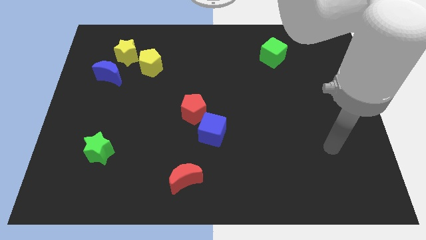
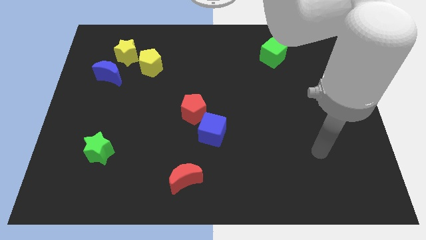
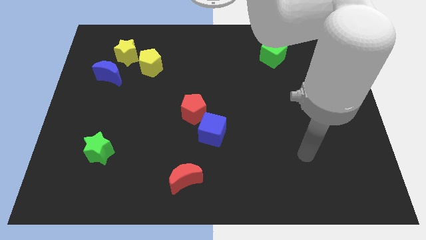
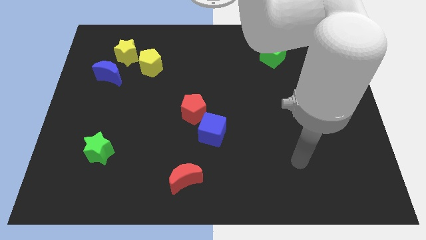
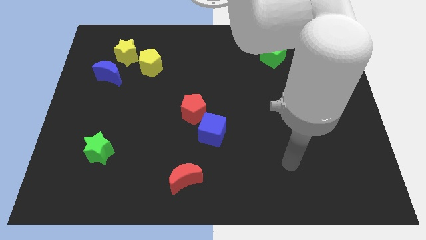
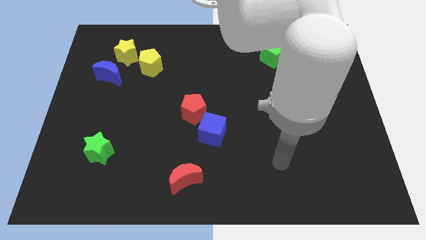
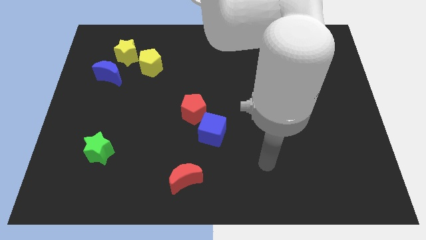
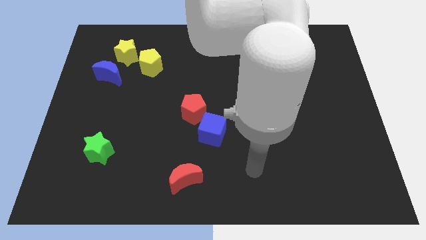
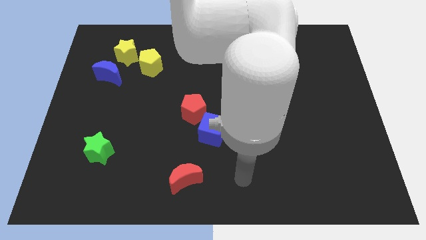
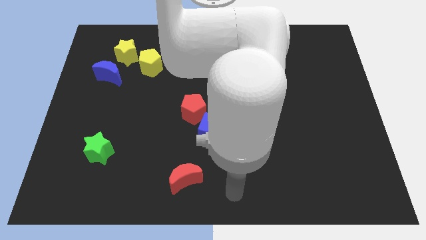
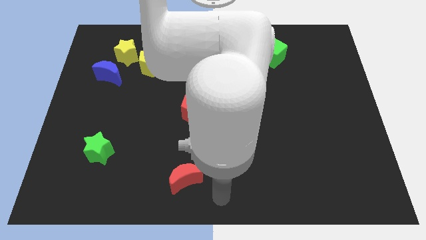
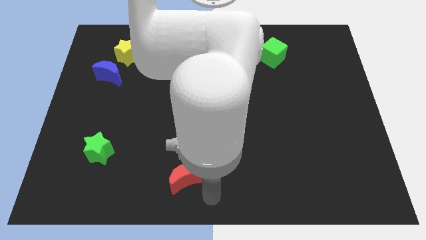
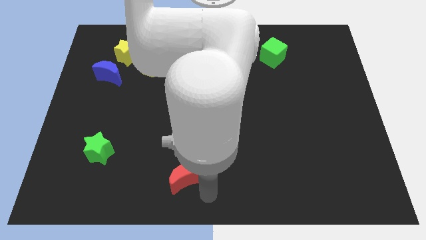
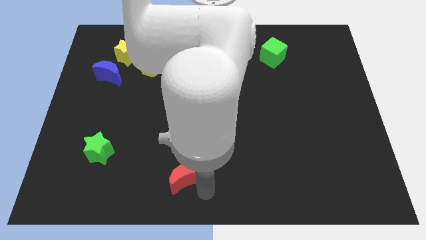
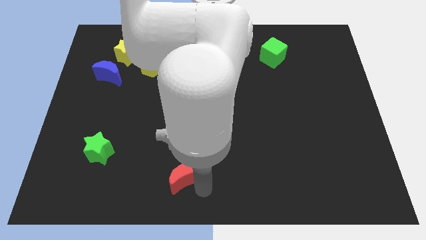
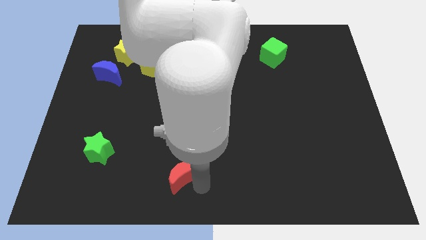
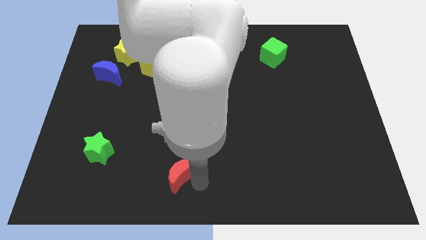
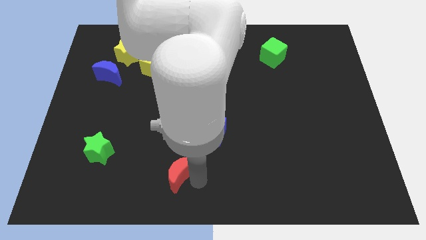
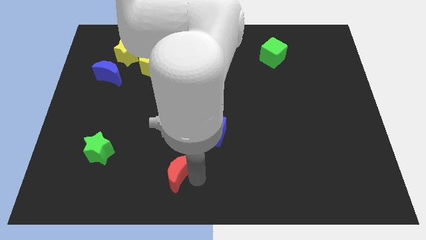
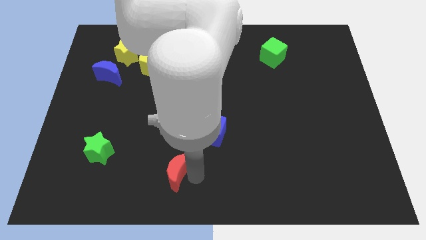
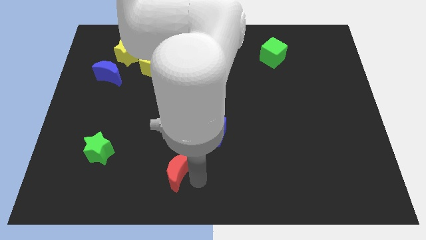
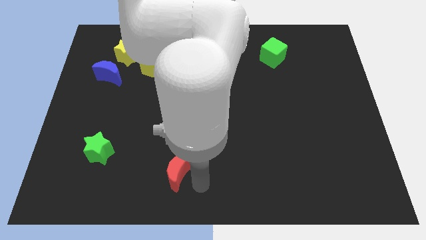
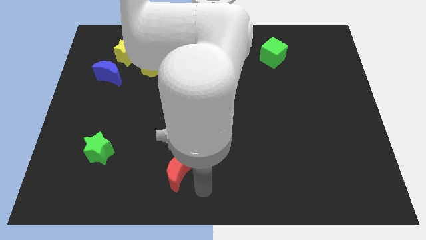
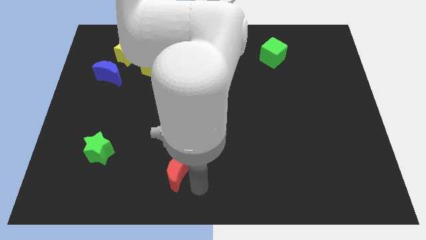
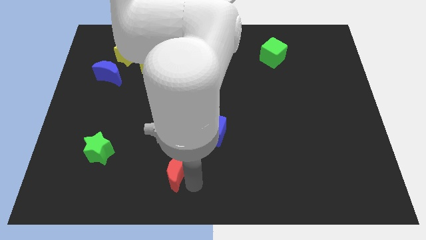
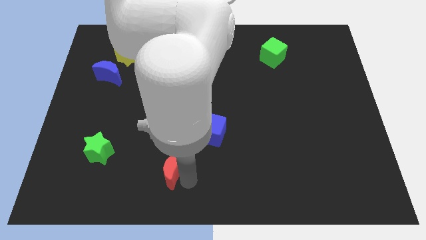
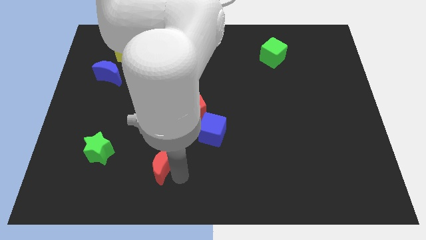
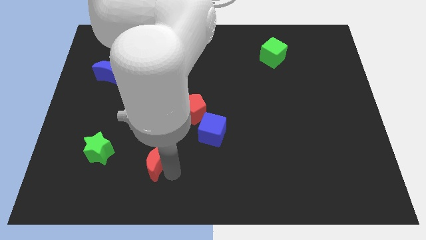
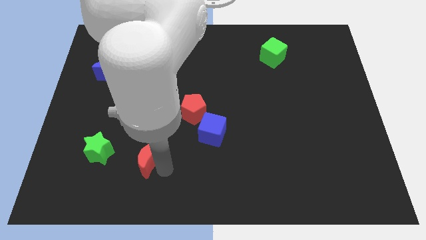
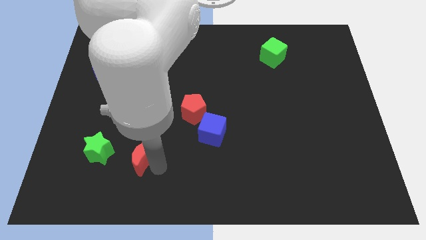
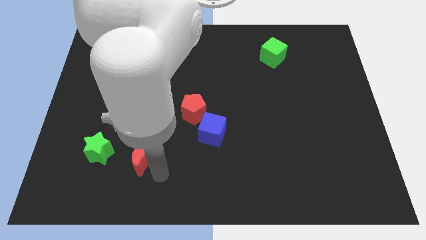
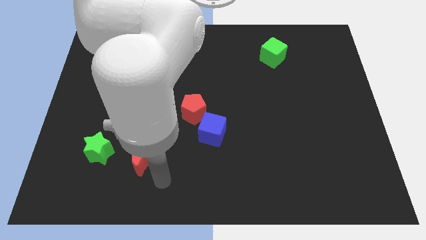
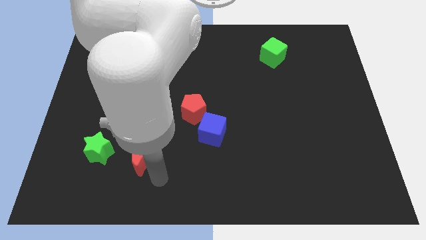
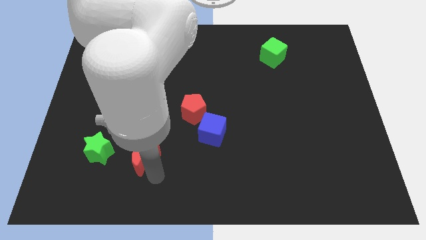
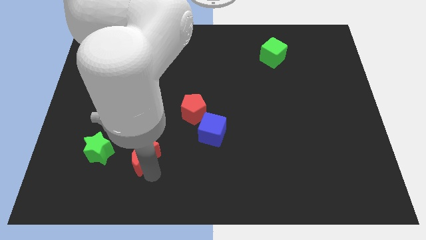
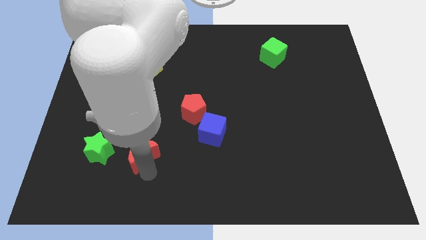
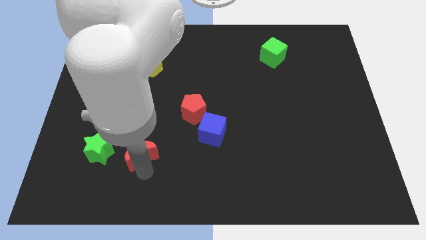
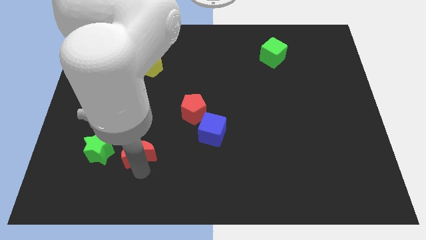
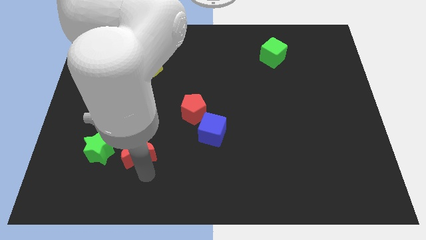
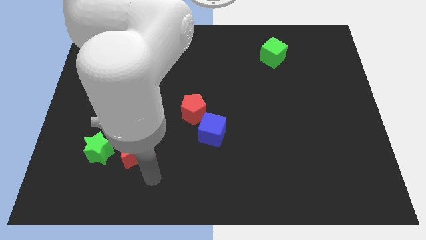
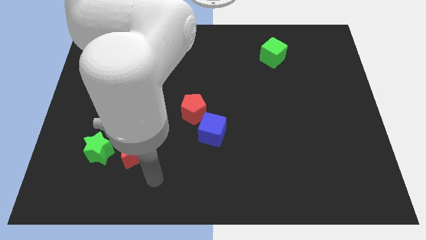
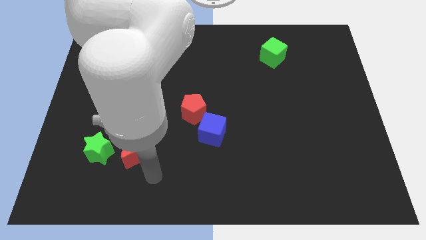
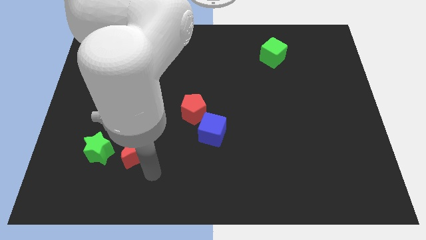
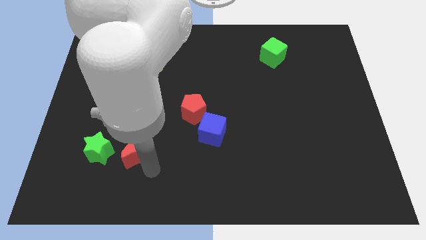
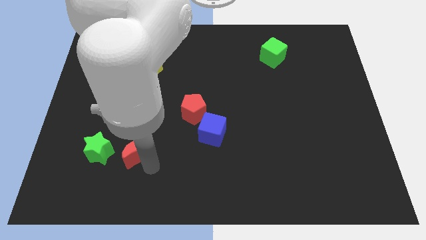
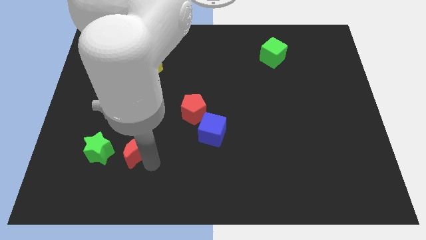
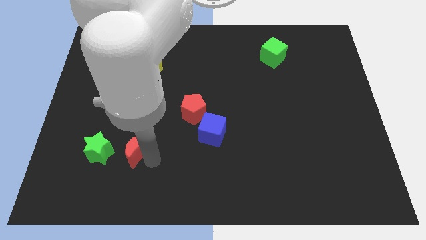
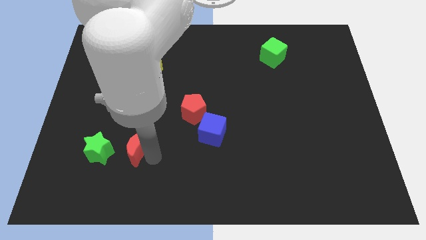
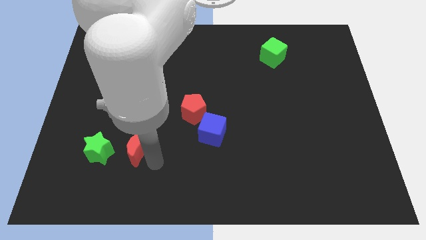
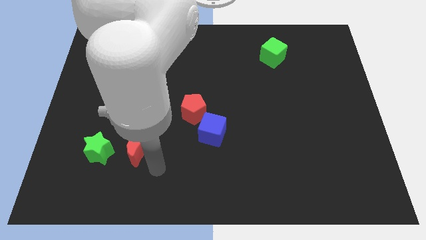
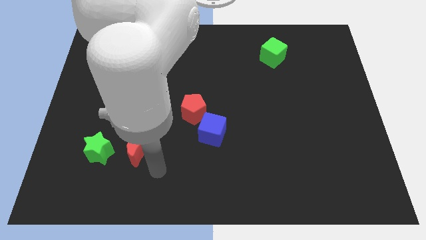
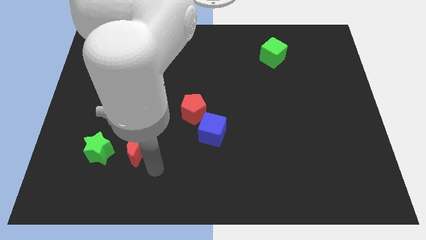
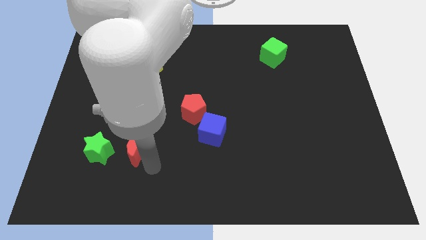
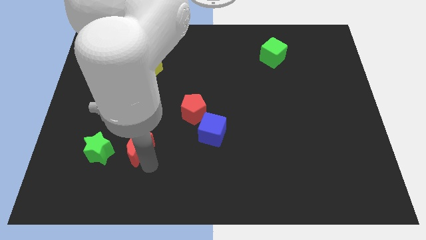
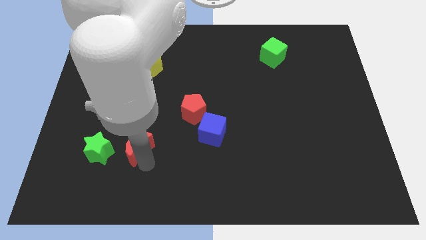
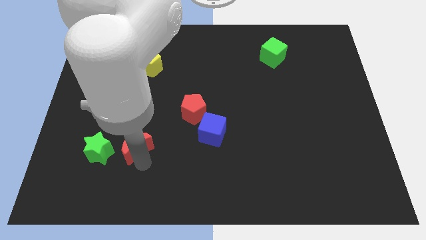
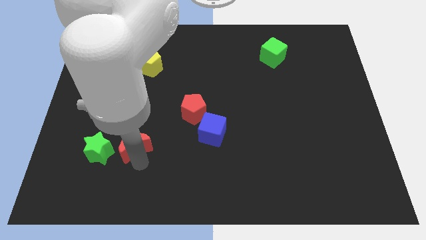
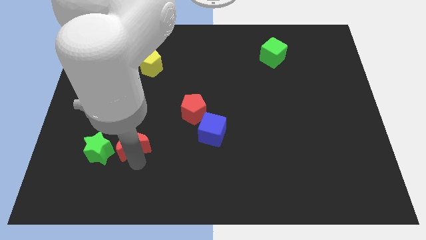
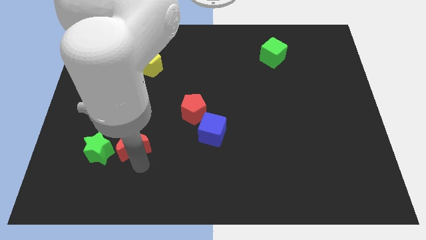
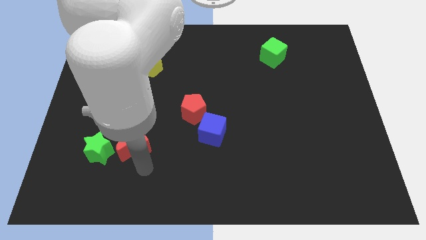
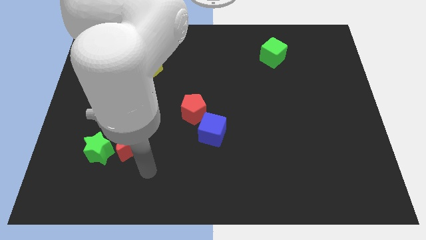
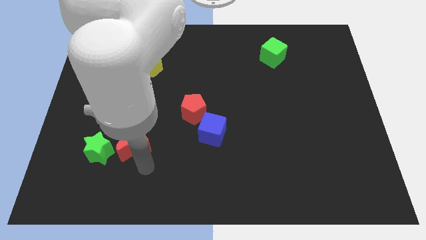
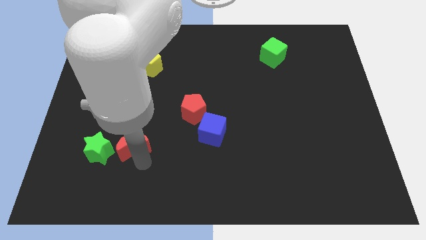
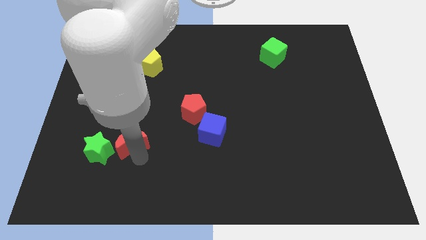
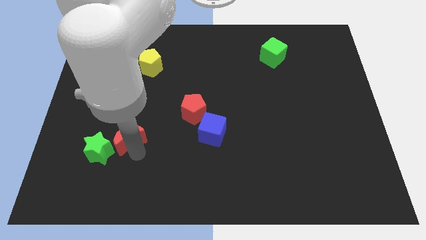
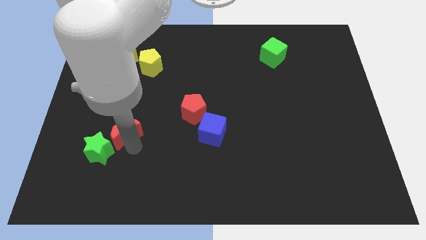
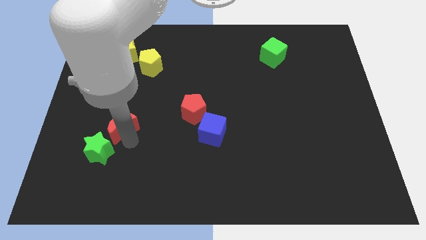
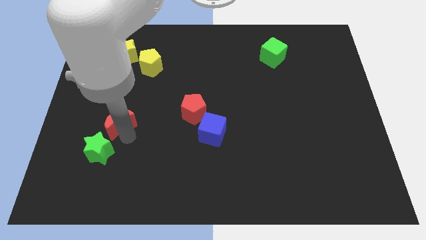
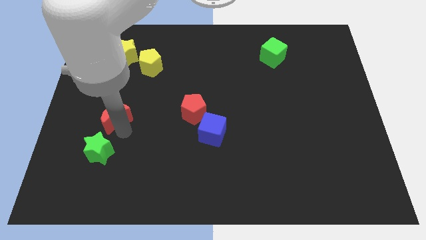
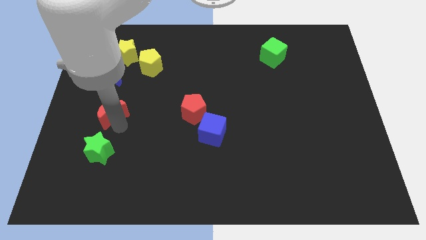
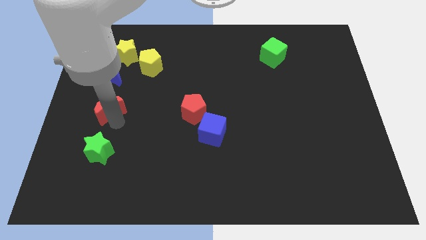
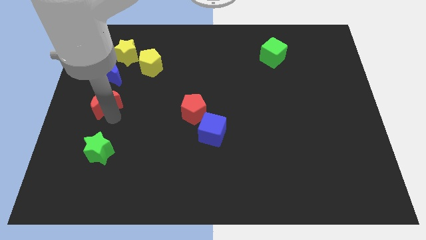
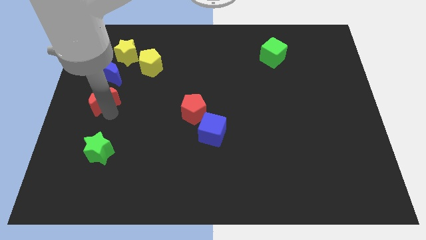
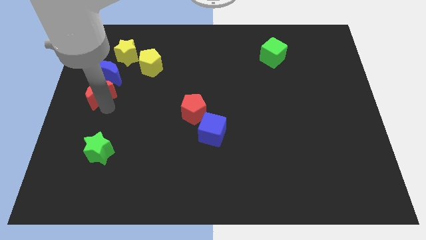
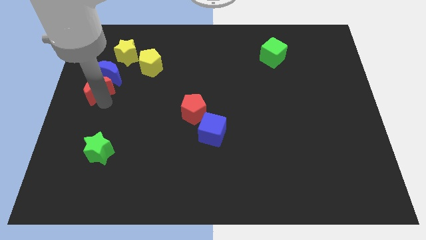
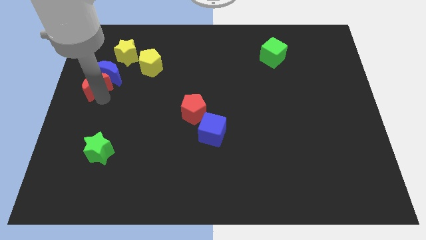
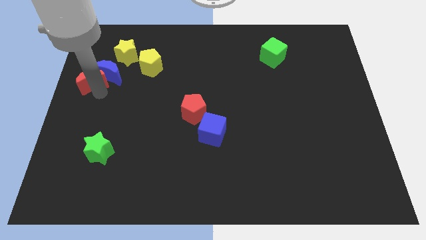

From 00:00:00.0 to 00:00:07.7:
push the red moon to the bottom left of the yellow star
